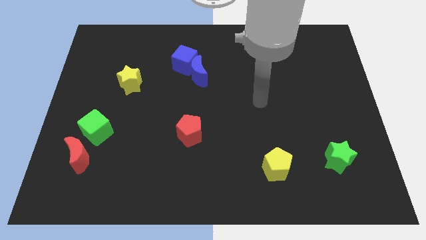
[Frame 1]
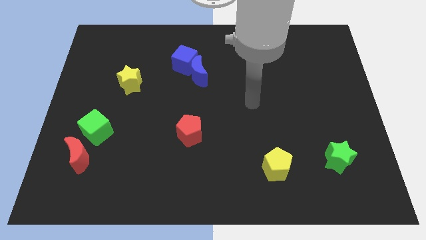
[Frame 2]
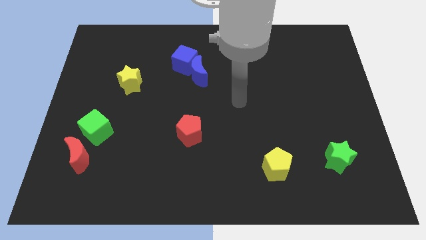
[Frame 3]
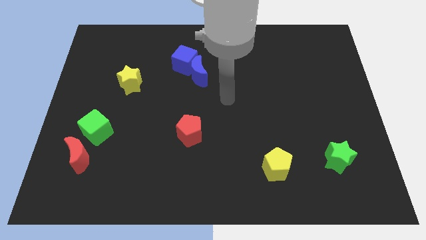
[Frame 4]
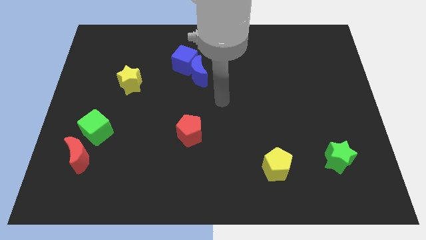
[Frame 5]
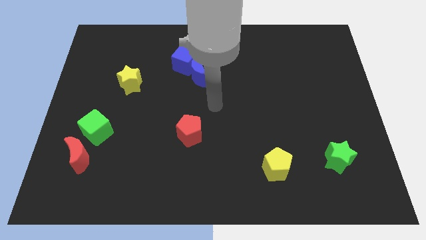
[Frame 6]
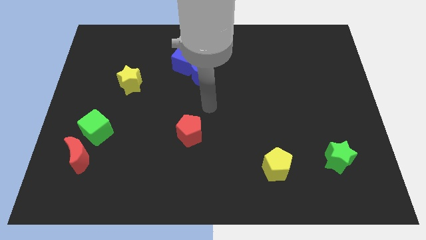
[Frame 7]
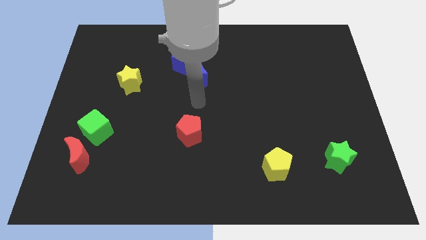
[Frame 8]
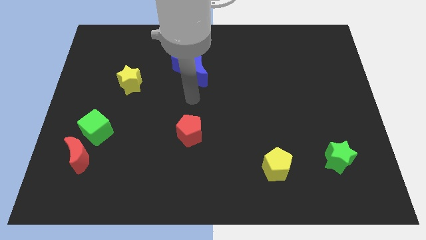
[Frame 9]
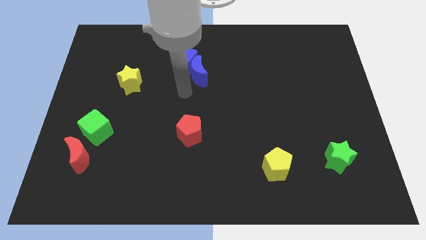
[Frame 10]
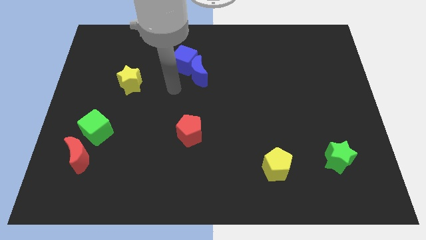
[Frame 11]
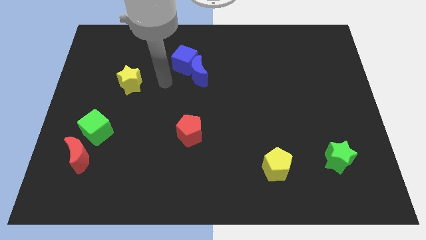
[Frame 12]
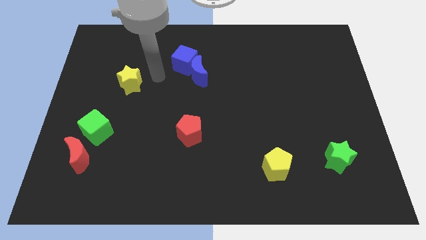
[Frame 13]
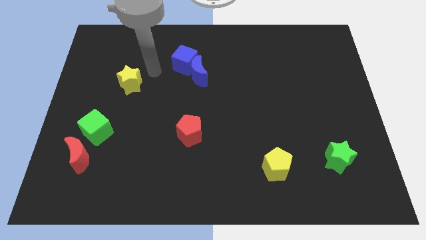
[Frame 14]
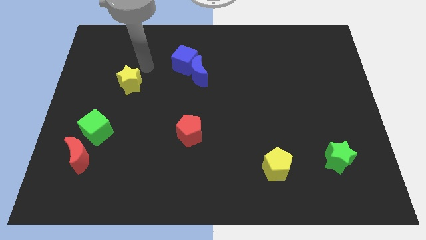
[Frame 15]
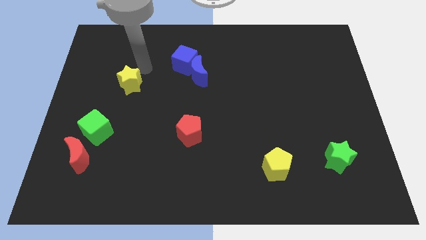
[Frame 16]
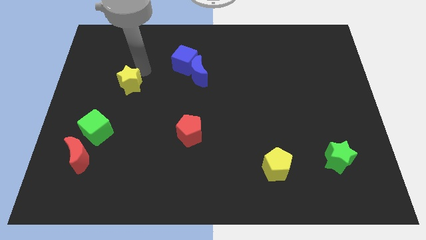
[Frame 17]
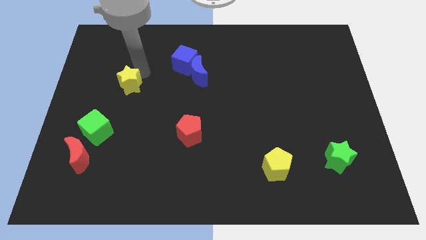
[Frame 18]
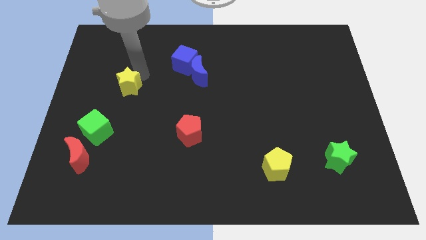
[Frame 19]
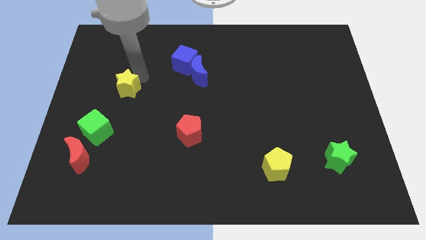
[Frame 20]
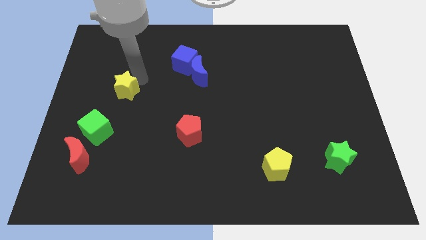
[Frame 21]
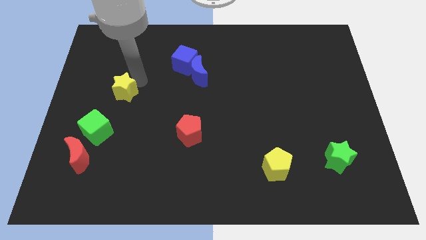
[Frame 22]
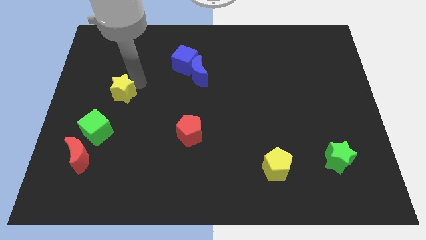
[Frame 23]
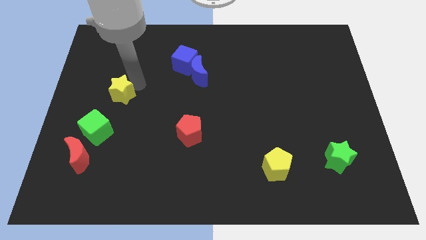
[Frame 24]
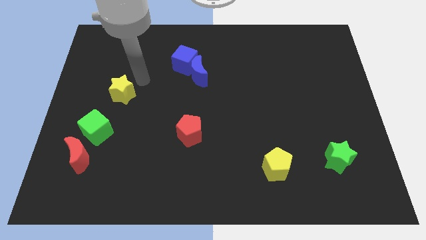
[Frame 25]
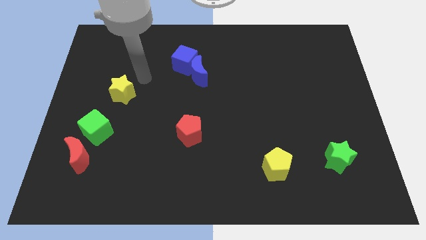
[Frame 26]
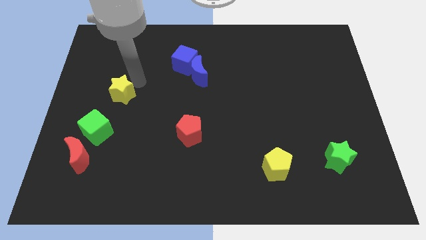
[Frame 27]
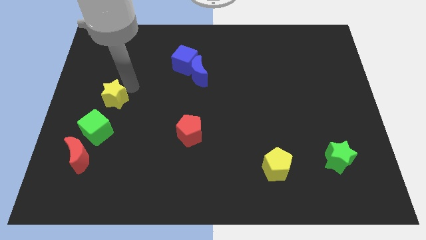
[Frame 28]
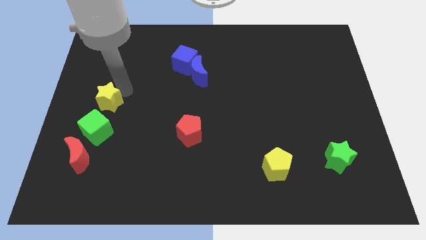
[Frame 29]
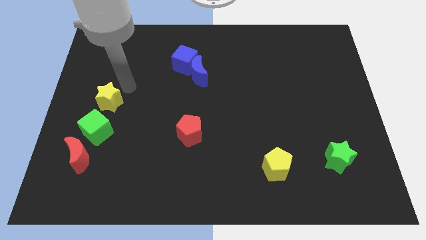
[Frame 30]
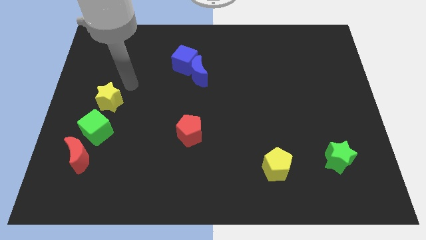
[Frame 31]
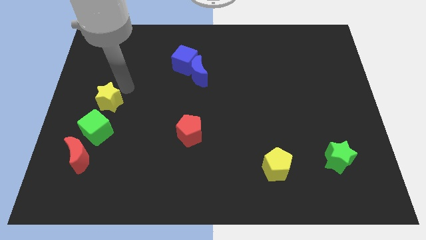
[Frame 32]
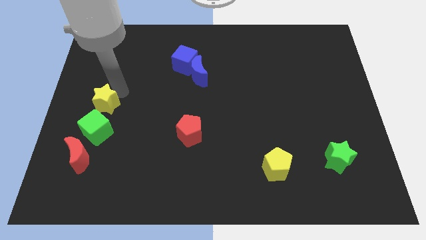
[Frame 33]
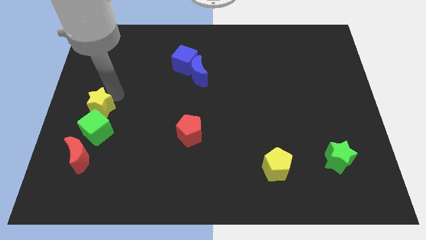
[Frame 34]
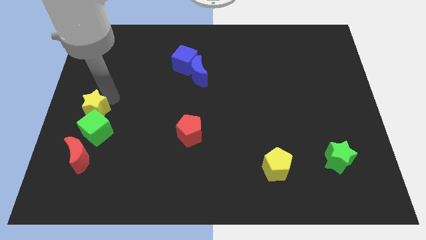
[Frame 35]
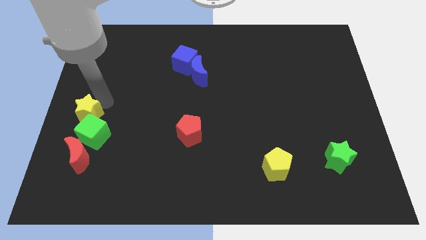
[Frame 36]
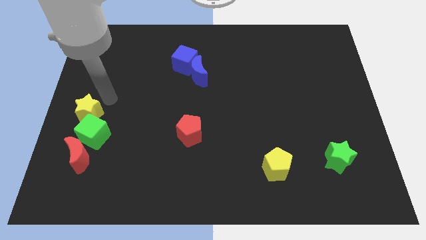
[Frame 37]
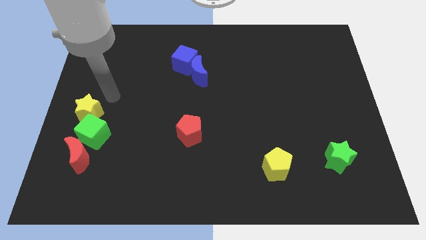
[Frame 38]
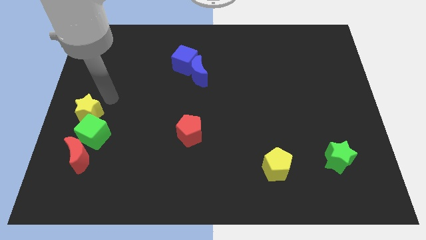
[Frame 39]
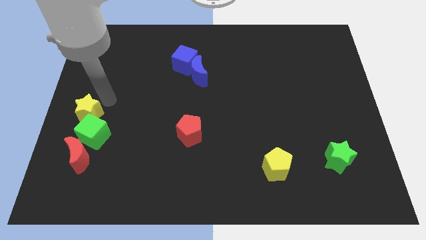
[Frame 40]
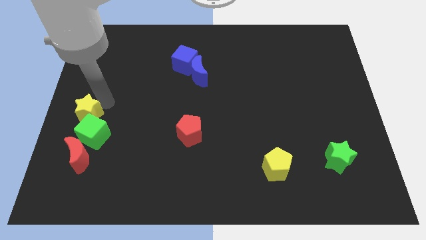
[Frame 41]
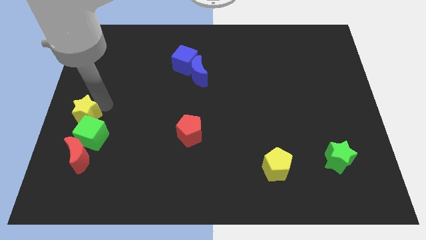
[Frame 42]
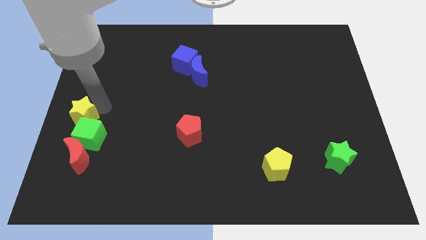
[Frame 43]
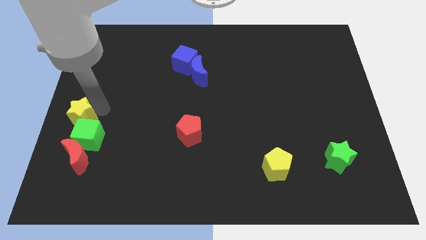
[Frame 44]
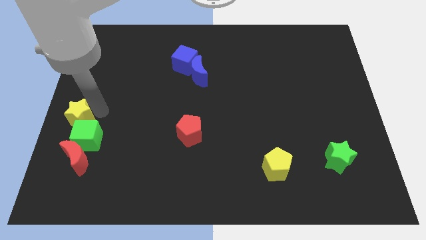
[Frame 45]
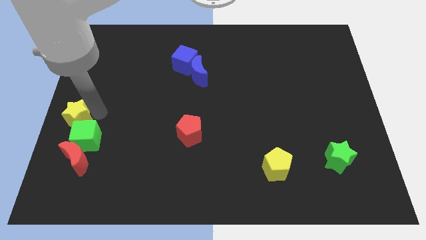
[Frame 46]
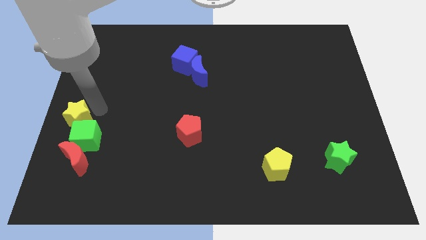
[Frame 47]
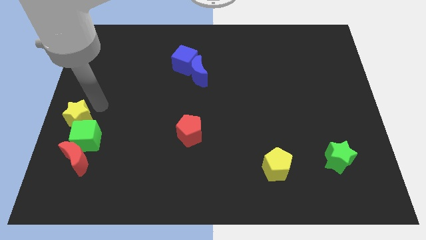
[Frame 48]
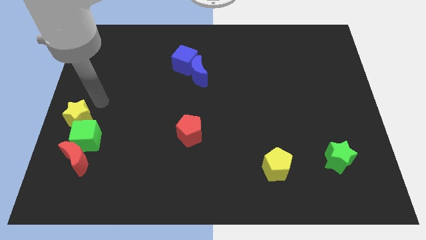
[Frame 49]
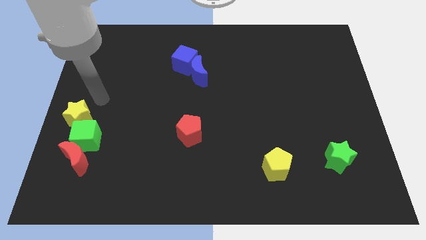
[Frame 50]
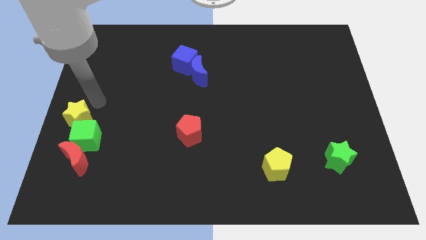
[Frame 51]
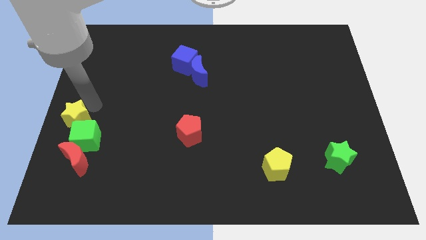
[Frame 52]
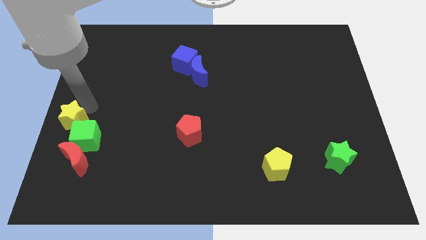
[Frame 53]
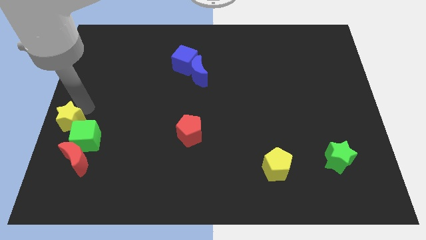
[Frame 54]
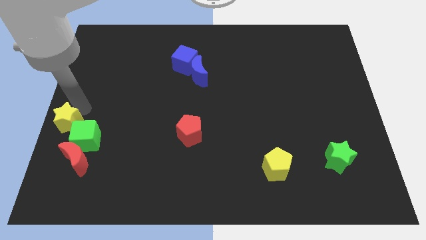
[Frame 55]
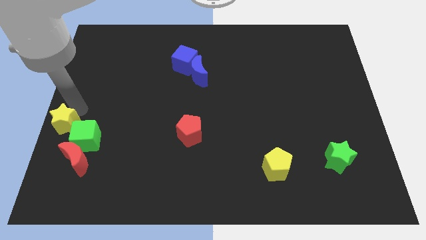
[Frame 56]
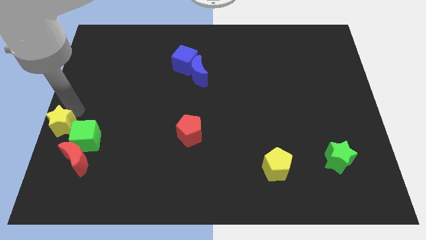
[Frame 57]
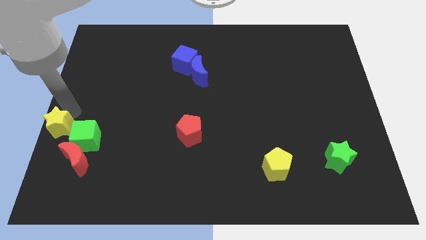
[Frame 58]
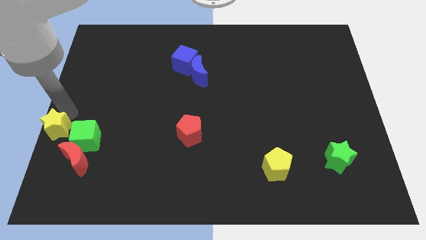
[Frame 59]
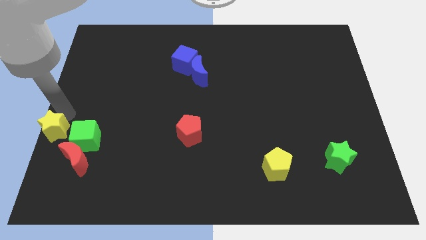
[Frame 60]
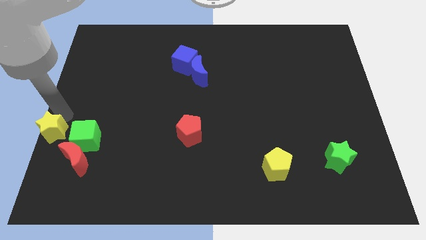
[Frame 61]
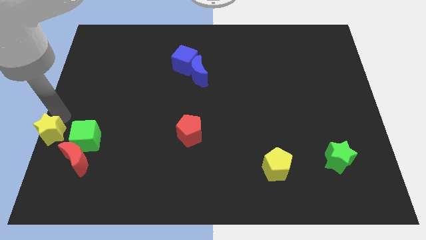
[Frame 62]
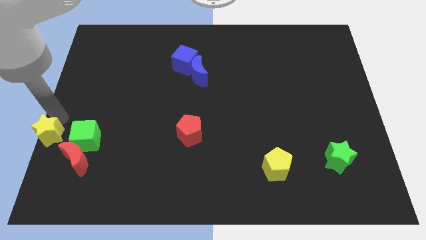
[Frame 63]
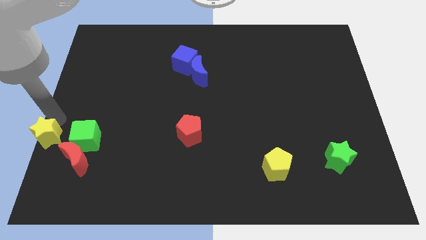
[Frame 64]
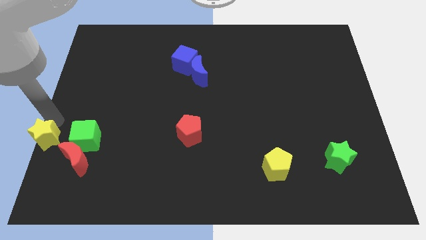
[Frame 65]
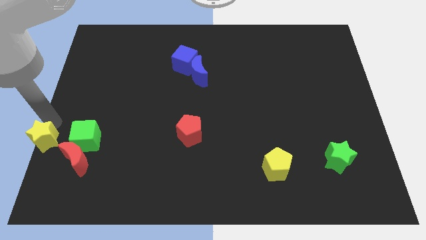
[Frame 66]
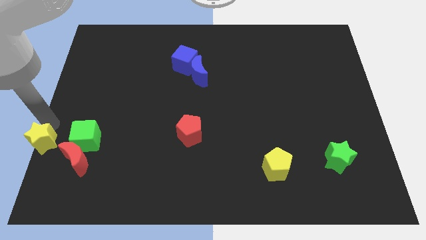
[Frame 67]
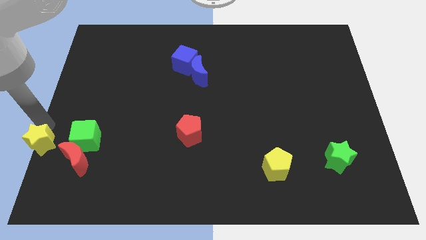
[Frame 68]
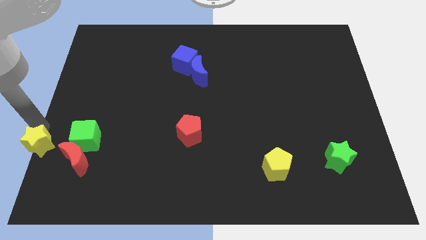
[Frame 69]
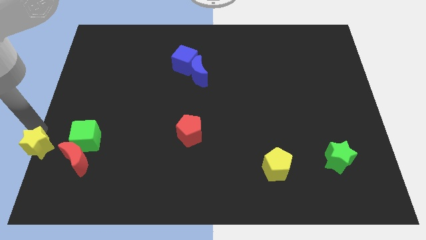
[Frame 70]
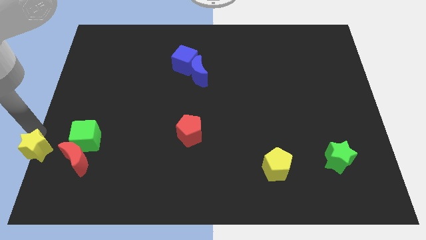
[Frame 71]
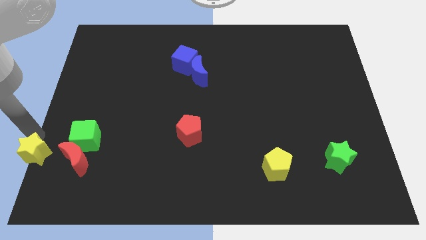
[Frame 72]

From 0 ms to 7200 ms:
slide the yellow star to the lower left corner
